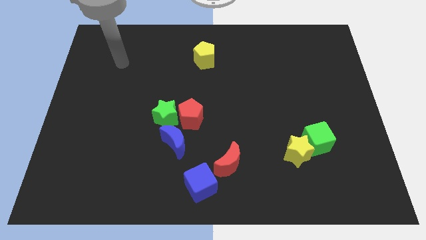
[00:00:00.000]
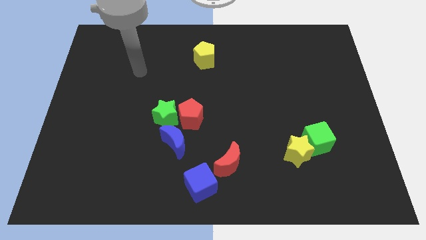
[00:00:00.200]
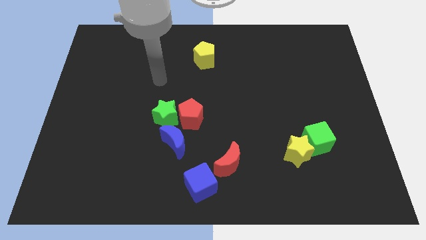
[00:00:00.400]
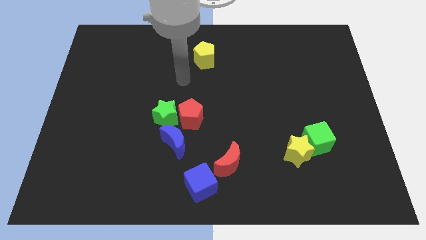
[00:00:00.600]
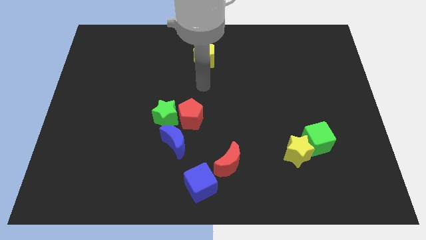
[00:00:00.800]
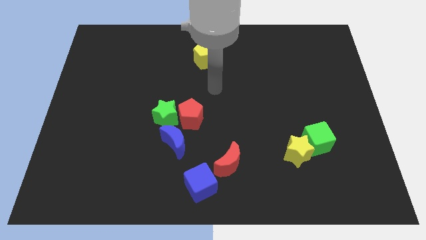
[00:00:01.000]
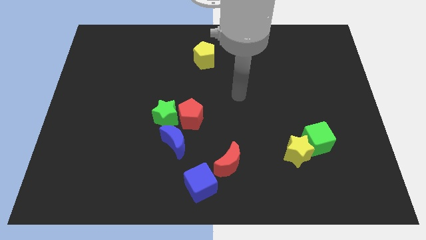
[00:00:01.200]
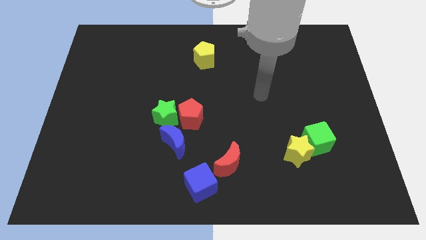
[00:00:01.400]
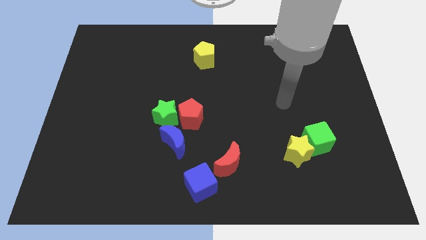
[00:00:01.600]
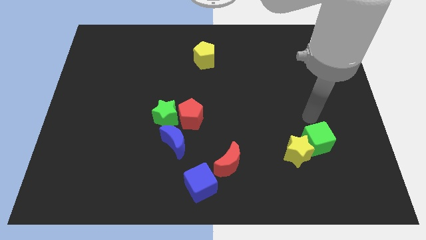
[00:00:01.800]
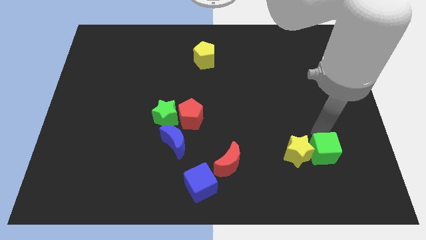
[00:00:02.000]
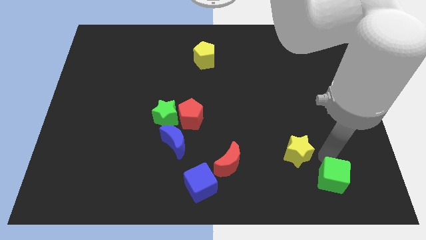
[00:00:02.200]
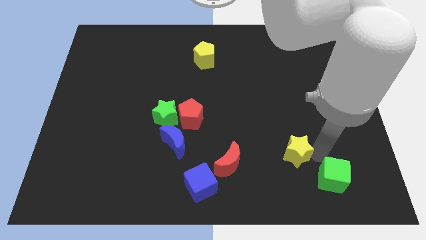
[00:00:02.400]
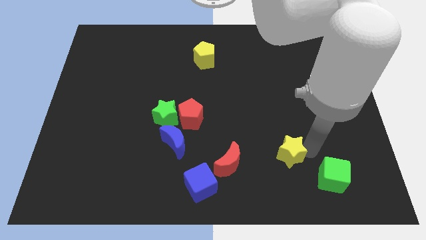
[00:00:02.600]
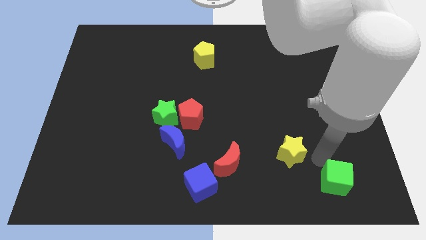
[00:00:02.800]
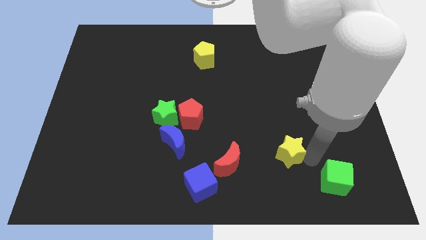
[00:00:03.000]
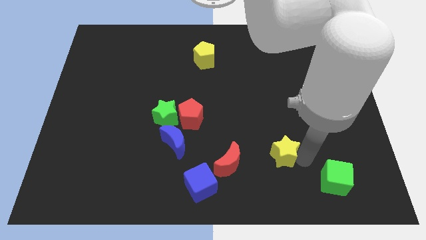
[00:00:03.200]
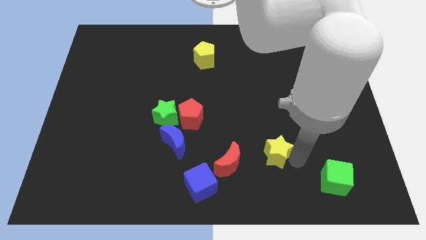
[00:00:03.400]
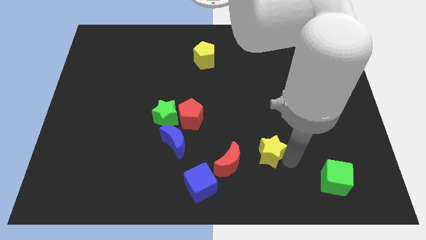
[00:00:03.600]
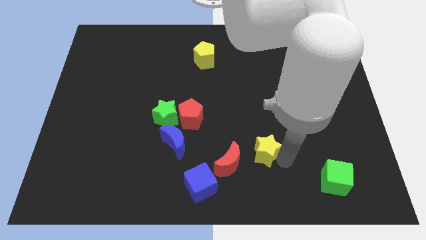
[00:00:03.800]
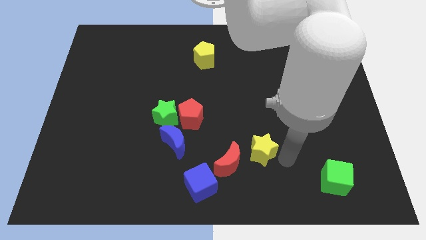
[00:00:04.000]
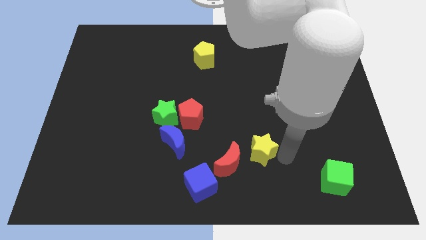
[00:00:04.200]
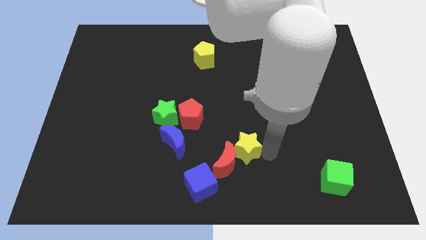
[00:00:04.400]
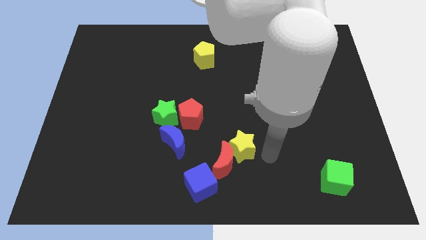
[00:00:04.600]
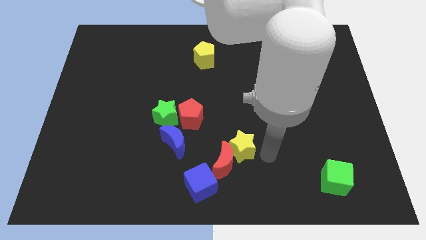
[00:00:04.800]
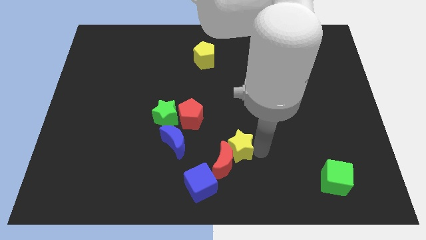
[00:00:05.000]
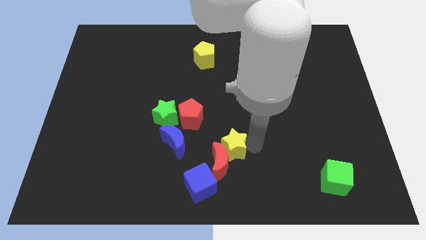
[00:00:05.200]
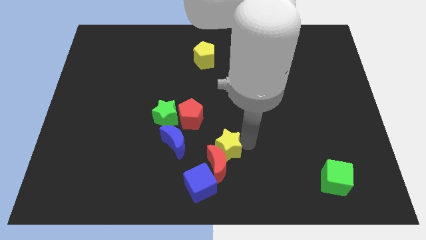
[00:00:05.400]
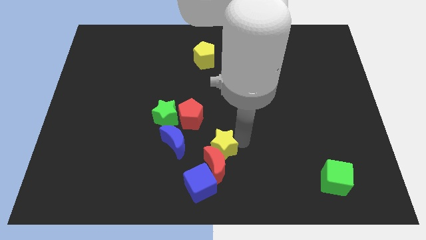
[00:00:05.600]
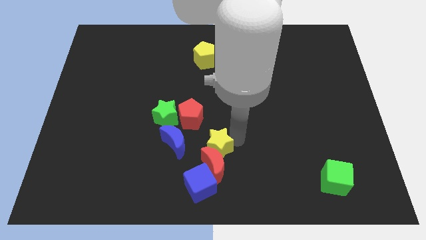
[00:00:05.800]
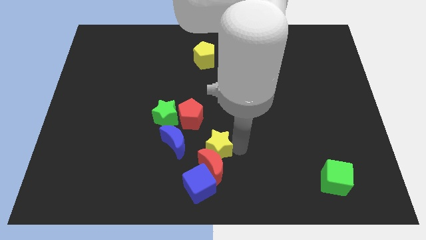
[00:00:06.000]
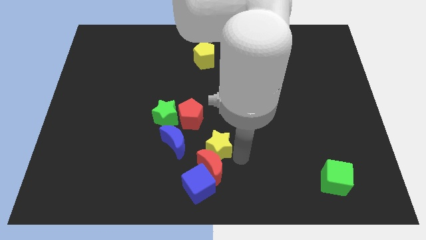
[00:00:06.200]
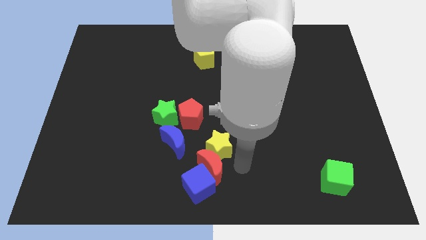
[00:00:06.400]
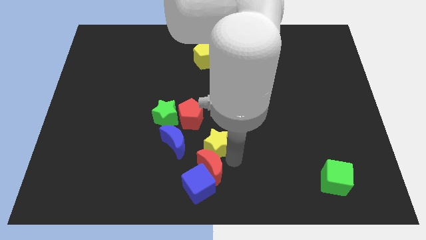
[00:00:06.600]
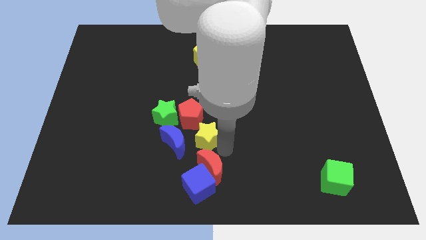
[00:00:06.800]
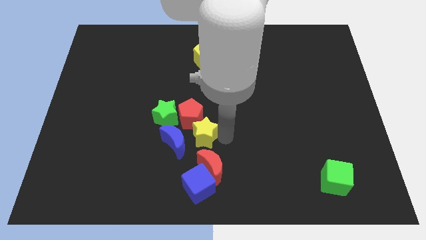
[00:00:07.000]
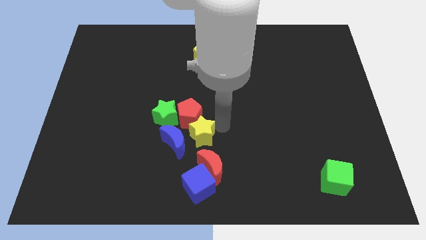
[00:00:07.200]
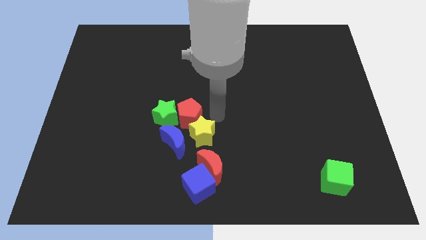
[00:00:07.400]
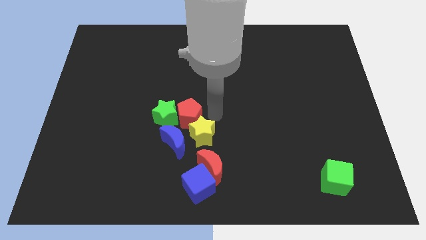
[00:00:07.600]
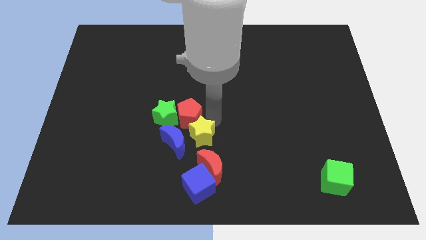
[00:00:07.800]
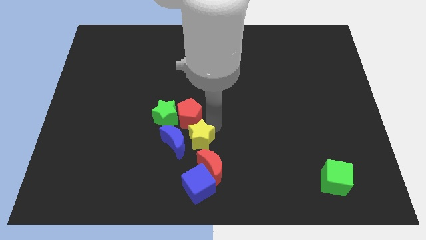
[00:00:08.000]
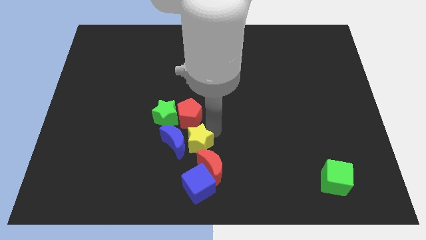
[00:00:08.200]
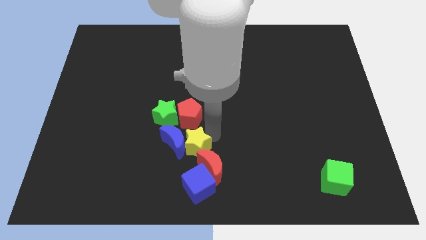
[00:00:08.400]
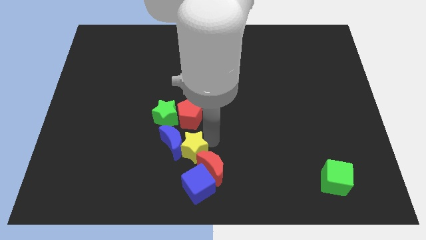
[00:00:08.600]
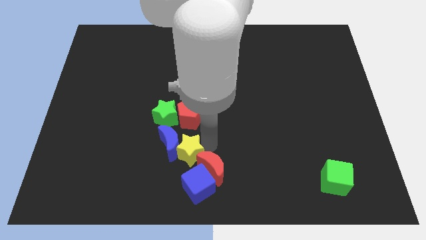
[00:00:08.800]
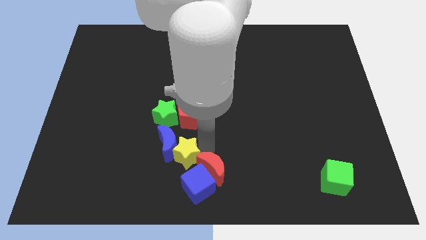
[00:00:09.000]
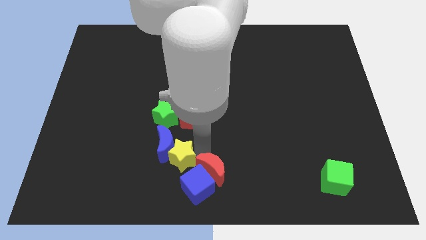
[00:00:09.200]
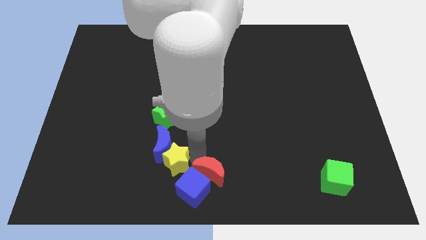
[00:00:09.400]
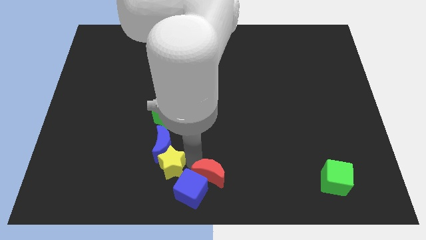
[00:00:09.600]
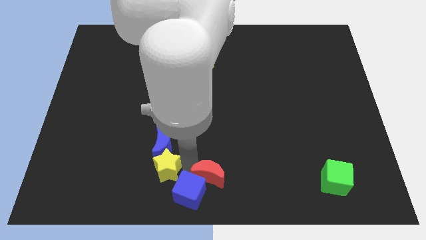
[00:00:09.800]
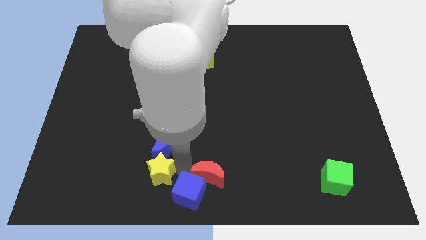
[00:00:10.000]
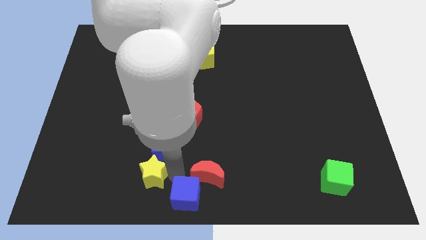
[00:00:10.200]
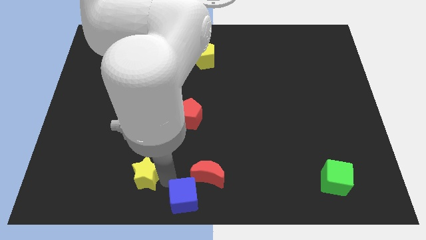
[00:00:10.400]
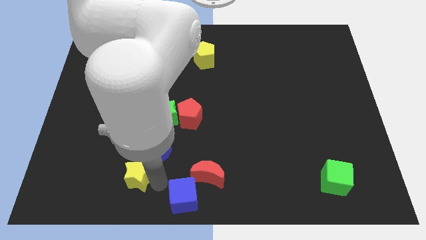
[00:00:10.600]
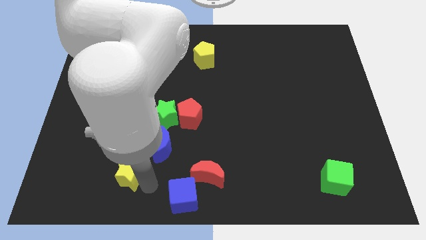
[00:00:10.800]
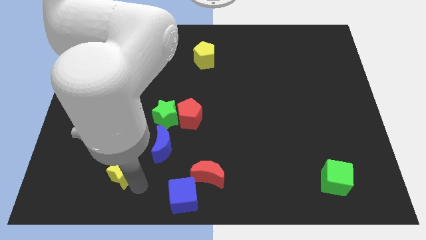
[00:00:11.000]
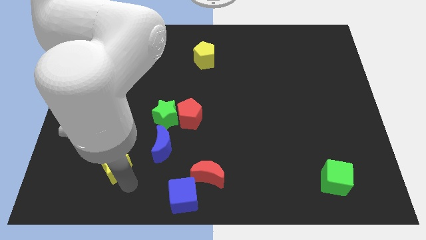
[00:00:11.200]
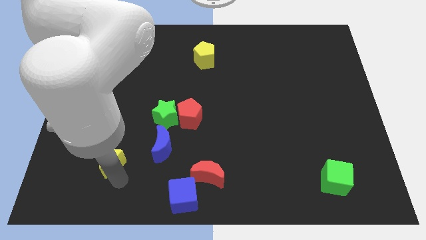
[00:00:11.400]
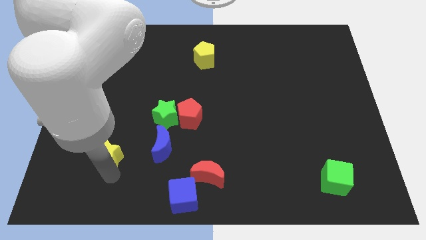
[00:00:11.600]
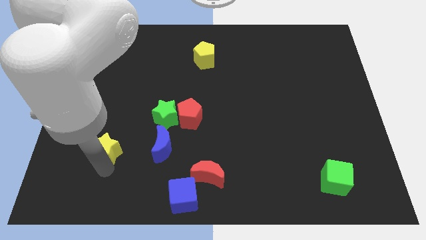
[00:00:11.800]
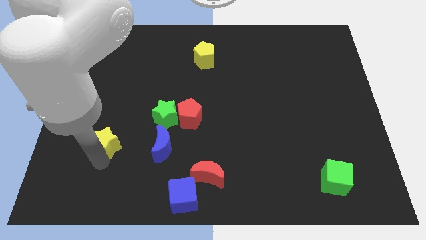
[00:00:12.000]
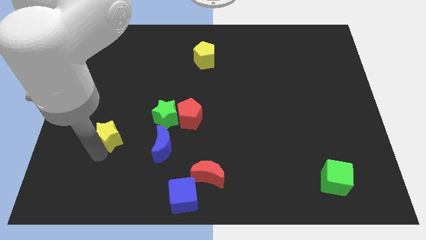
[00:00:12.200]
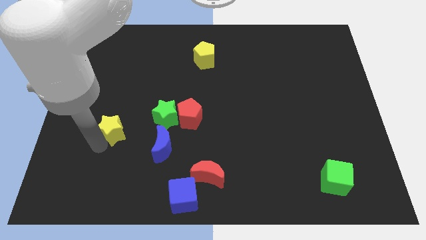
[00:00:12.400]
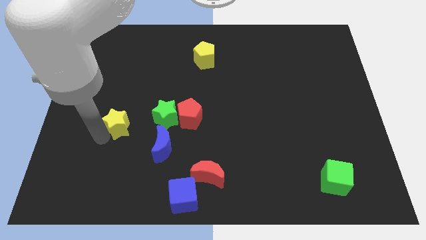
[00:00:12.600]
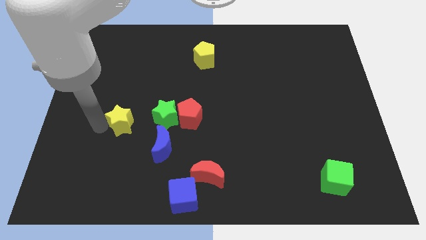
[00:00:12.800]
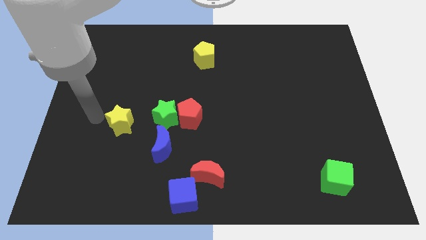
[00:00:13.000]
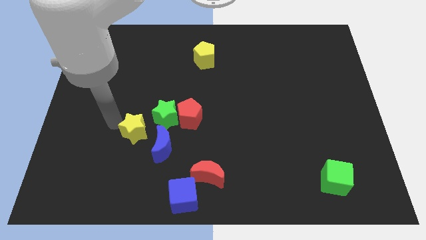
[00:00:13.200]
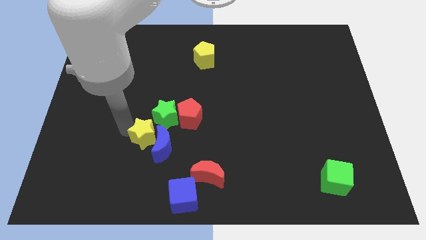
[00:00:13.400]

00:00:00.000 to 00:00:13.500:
move the yellow star to the bottom left side of the red pentagon
